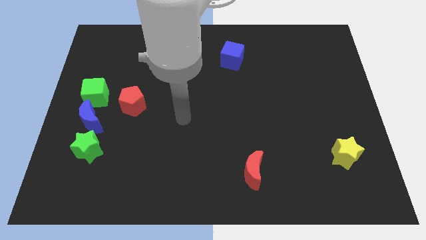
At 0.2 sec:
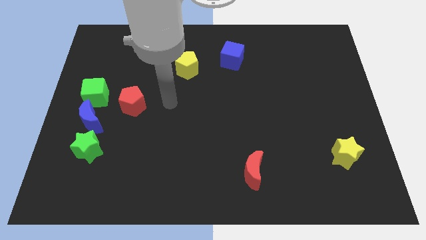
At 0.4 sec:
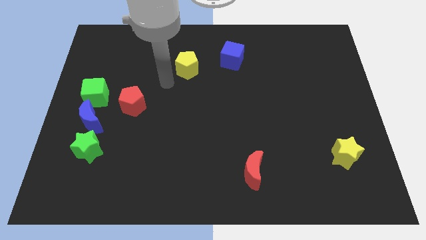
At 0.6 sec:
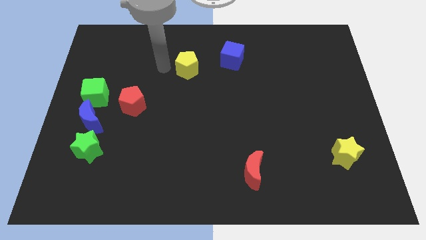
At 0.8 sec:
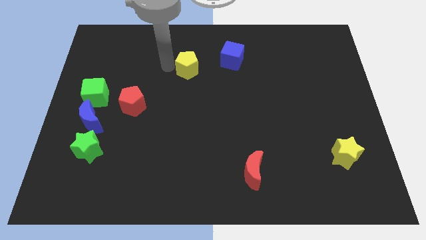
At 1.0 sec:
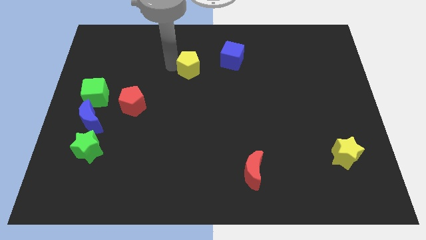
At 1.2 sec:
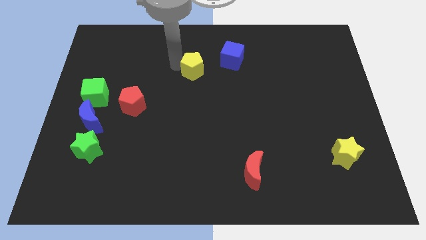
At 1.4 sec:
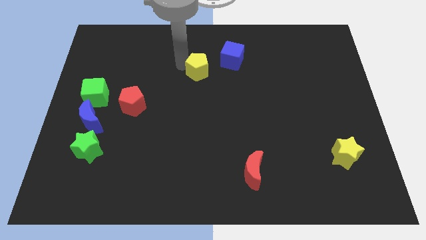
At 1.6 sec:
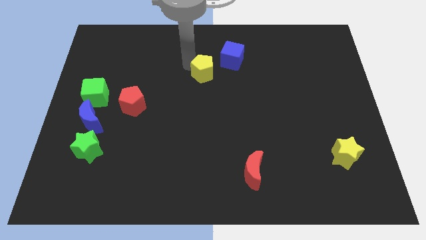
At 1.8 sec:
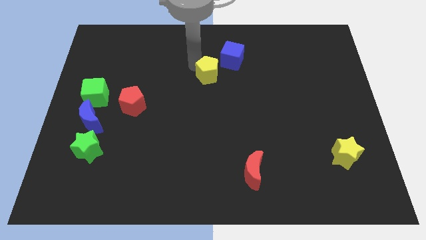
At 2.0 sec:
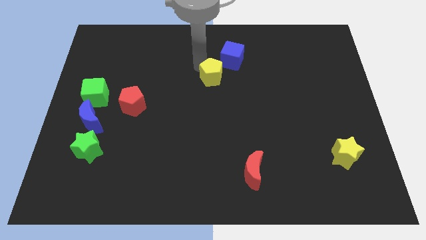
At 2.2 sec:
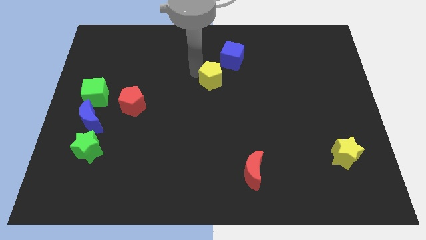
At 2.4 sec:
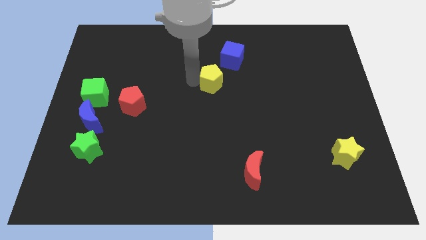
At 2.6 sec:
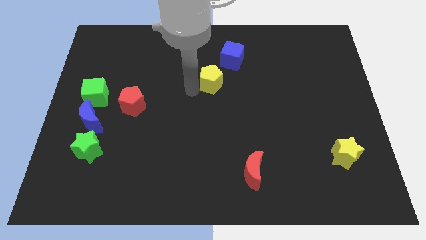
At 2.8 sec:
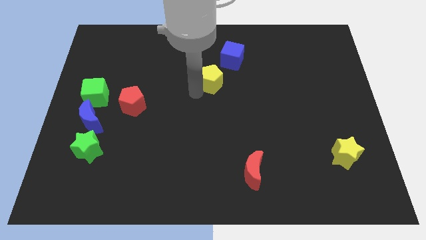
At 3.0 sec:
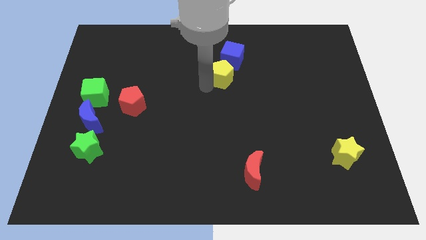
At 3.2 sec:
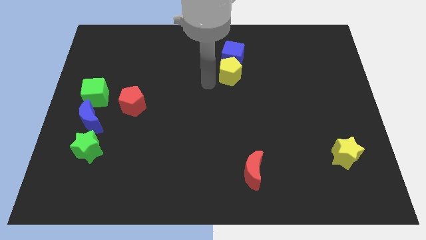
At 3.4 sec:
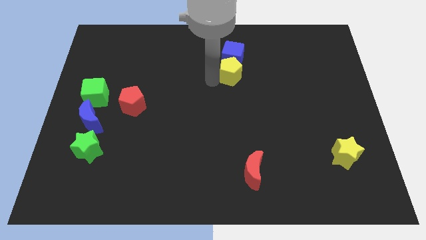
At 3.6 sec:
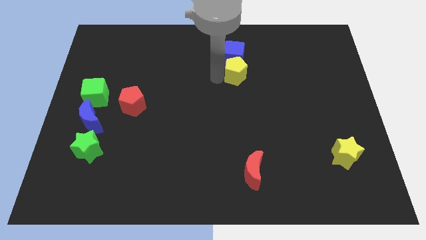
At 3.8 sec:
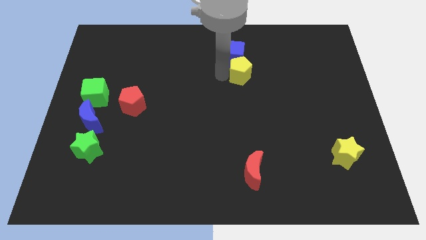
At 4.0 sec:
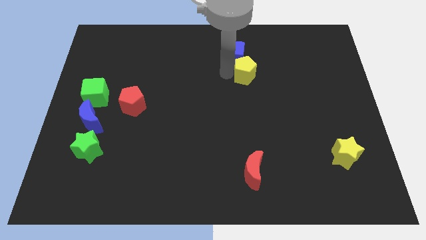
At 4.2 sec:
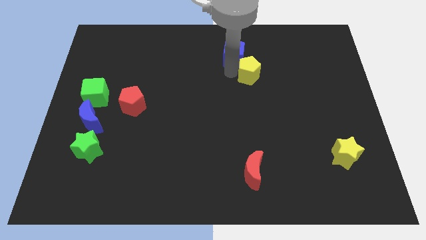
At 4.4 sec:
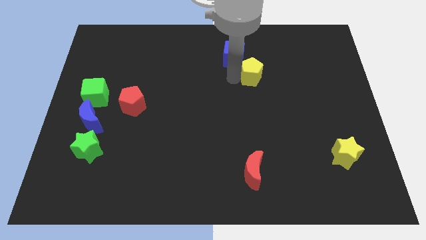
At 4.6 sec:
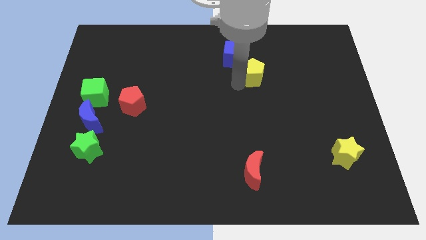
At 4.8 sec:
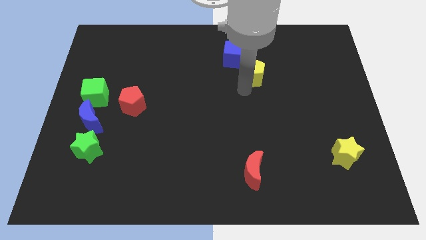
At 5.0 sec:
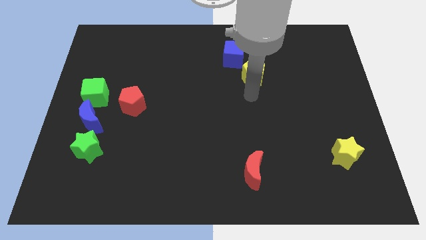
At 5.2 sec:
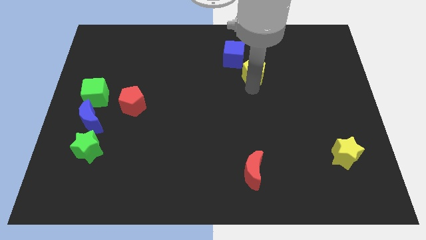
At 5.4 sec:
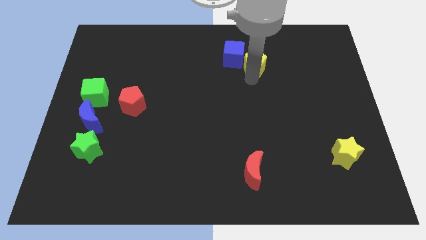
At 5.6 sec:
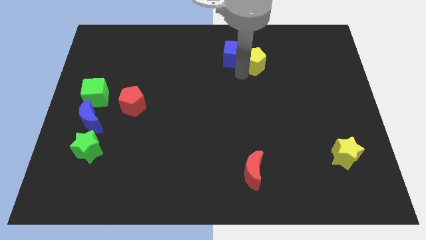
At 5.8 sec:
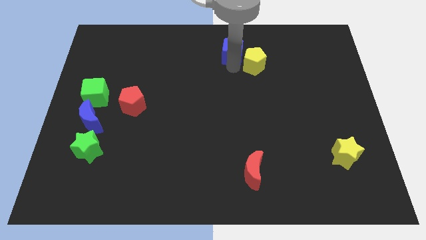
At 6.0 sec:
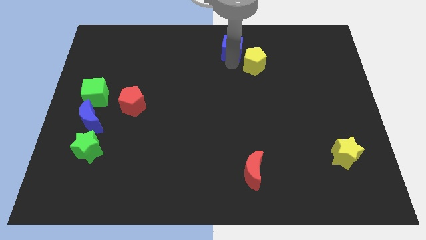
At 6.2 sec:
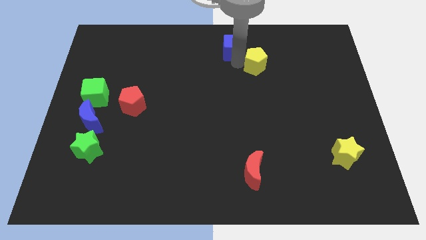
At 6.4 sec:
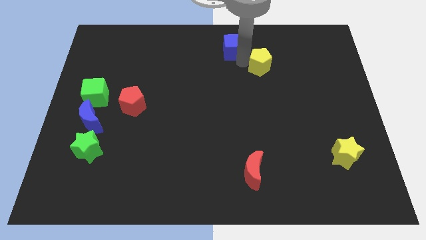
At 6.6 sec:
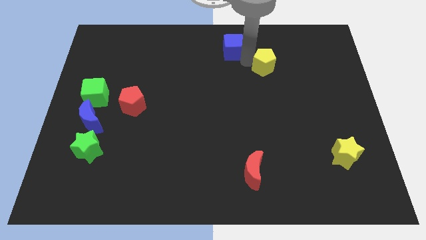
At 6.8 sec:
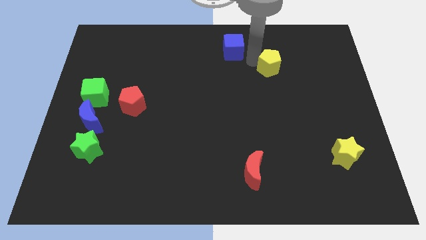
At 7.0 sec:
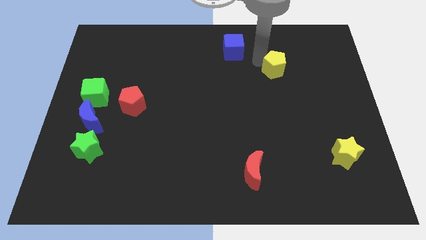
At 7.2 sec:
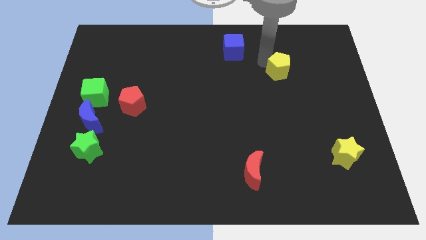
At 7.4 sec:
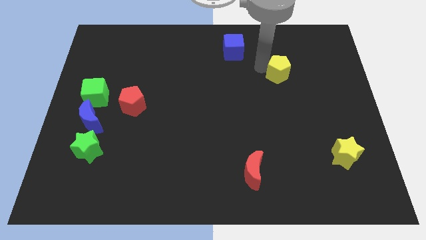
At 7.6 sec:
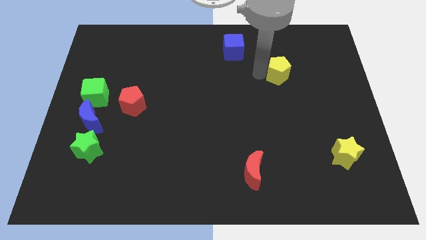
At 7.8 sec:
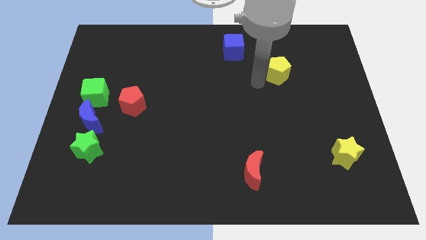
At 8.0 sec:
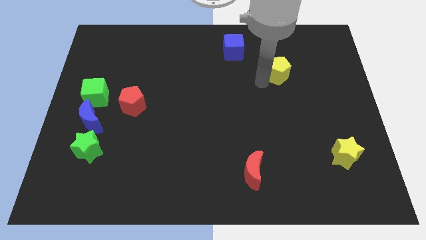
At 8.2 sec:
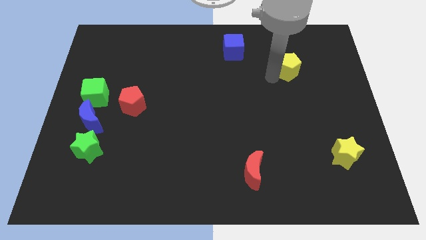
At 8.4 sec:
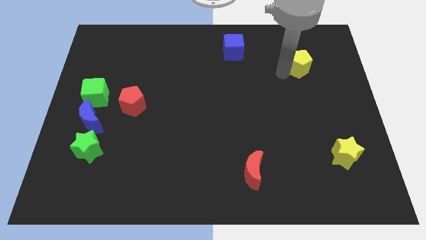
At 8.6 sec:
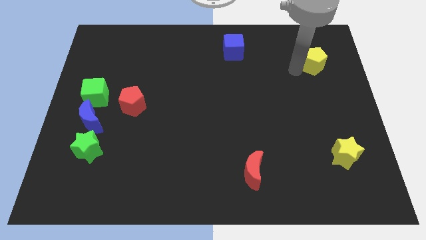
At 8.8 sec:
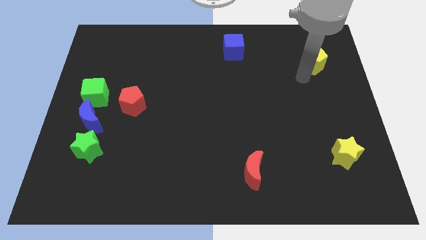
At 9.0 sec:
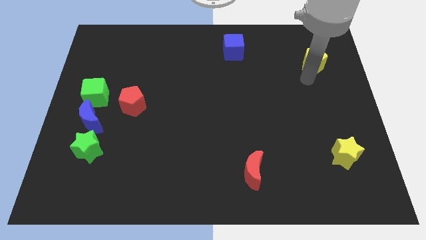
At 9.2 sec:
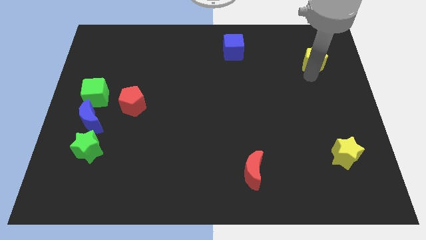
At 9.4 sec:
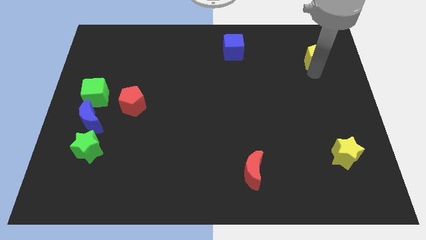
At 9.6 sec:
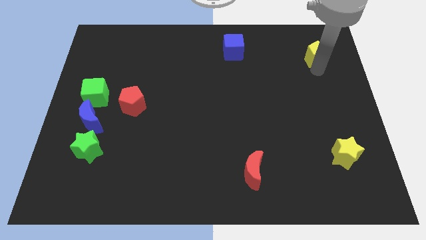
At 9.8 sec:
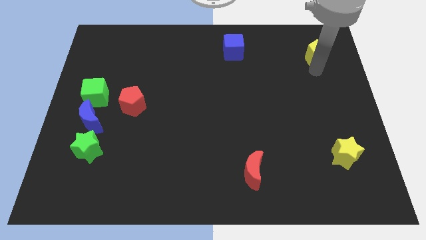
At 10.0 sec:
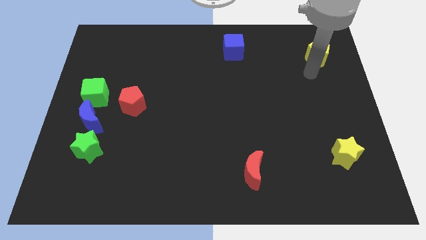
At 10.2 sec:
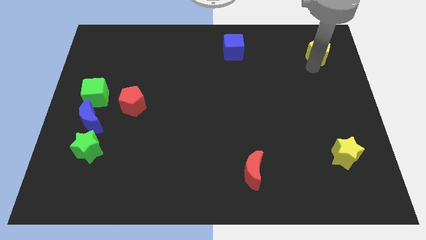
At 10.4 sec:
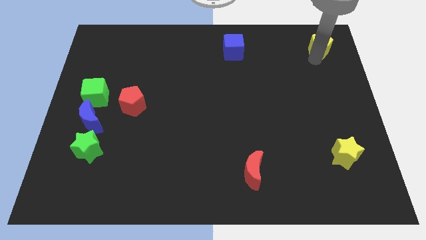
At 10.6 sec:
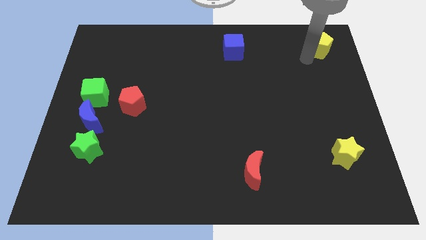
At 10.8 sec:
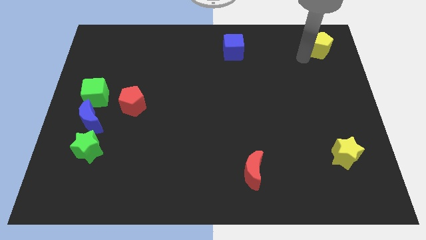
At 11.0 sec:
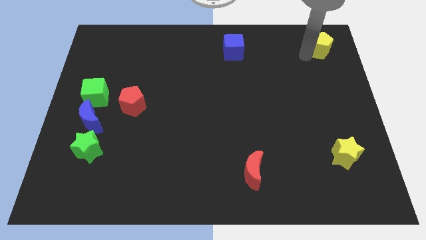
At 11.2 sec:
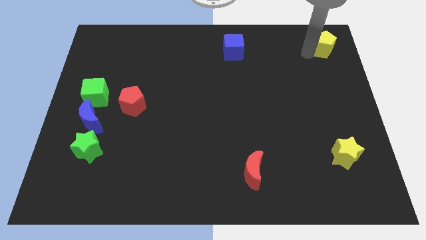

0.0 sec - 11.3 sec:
put the yellow pentagon to the top right of the board

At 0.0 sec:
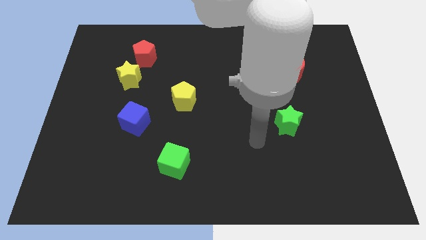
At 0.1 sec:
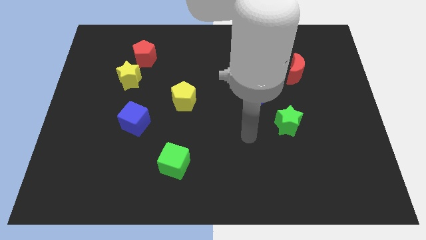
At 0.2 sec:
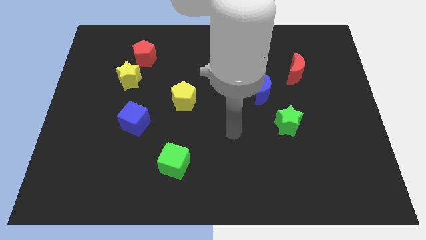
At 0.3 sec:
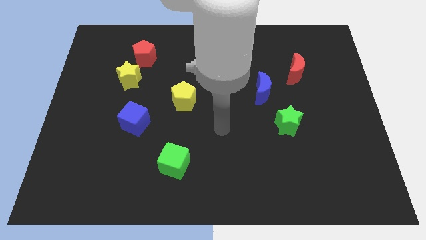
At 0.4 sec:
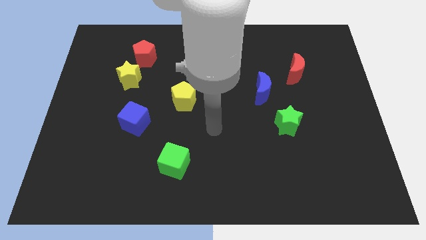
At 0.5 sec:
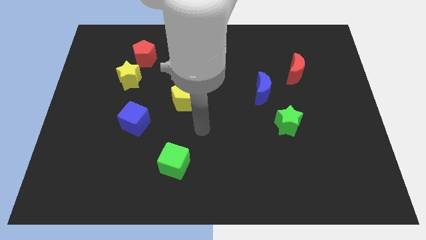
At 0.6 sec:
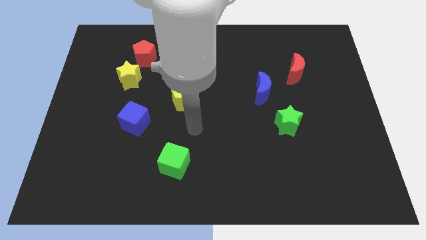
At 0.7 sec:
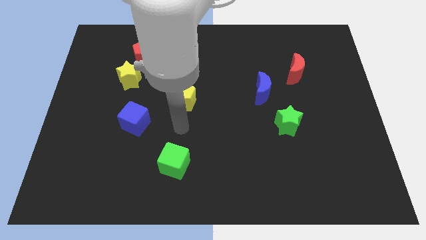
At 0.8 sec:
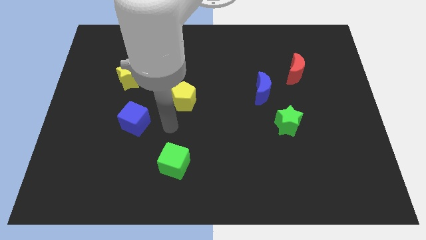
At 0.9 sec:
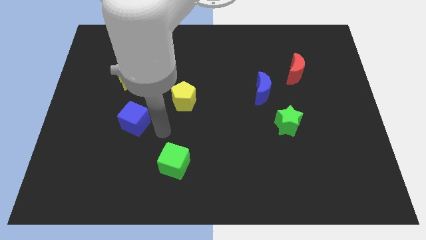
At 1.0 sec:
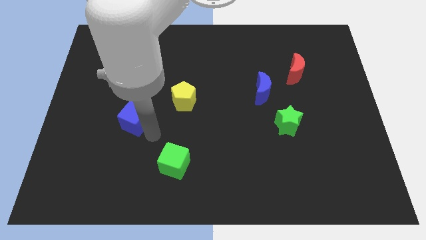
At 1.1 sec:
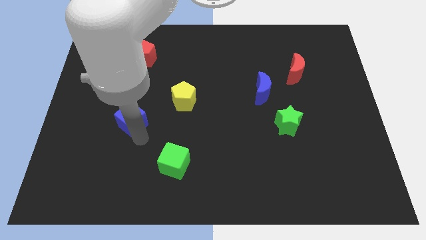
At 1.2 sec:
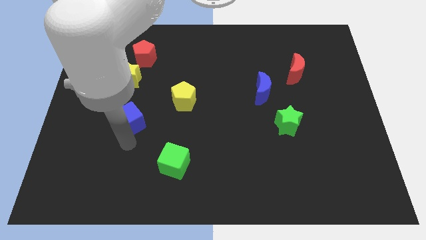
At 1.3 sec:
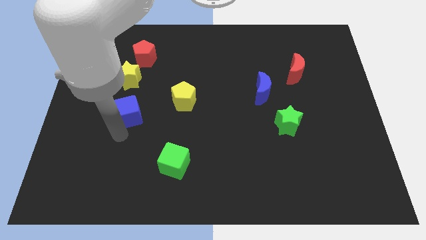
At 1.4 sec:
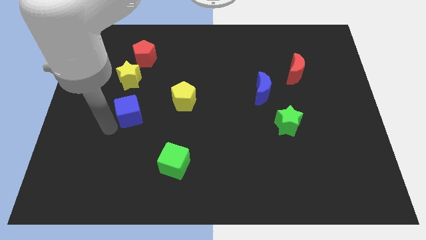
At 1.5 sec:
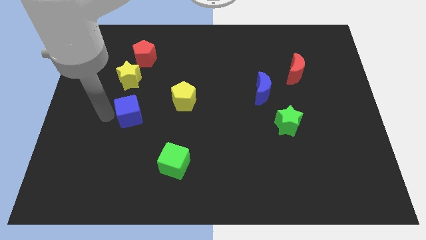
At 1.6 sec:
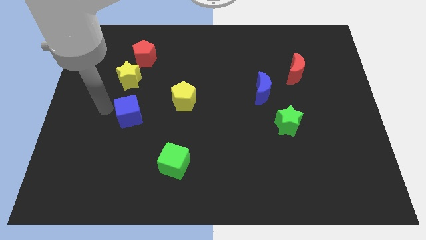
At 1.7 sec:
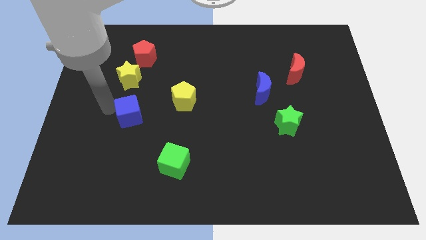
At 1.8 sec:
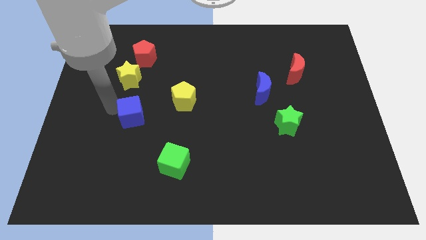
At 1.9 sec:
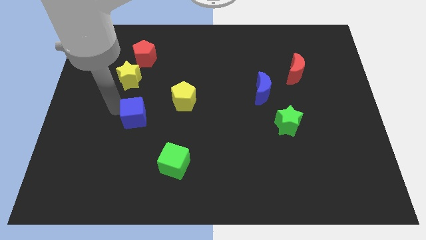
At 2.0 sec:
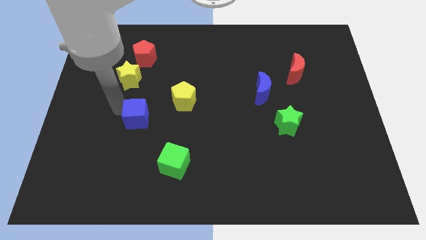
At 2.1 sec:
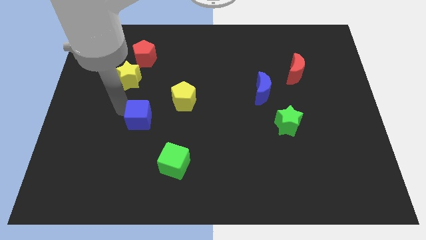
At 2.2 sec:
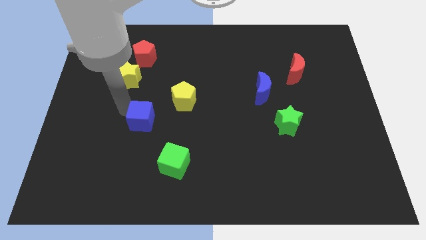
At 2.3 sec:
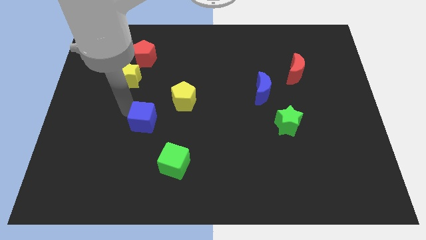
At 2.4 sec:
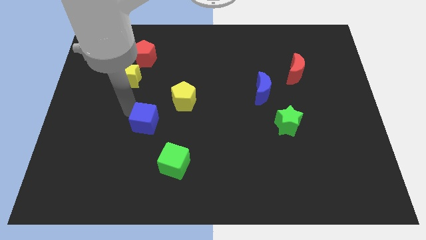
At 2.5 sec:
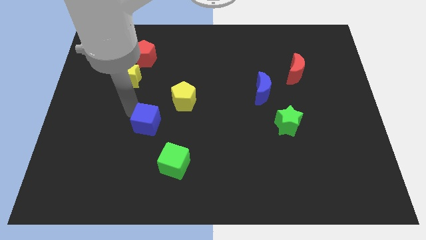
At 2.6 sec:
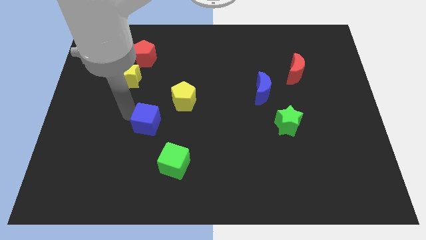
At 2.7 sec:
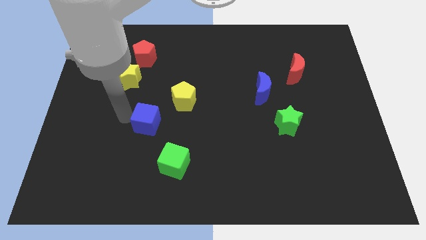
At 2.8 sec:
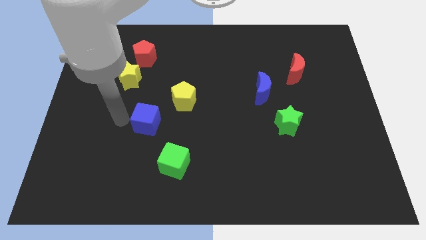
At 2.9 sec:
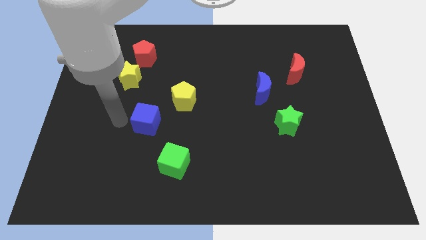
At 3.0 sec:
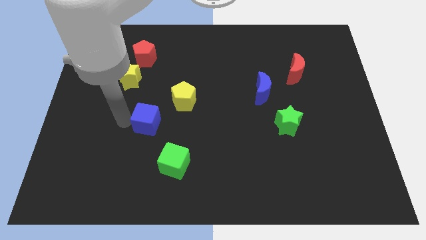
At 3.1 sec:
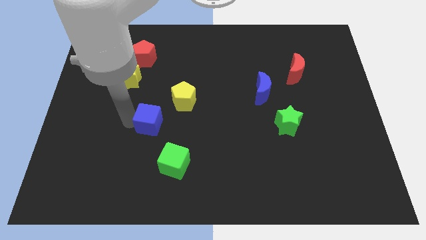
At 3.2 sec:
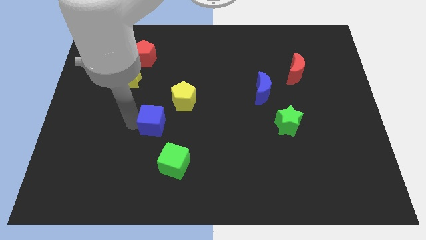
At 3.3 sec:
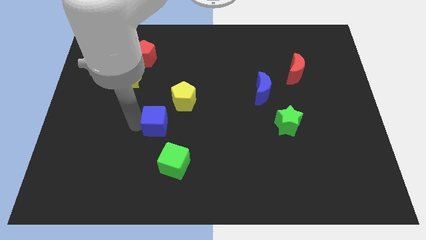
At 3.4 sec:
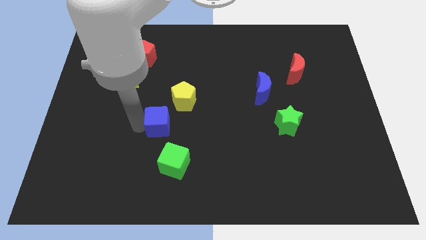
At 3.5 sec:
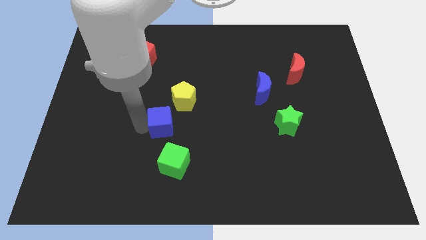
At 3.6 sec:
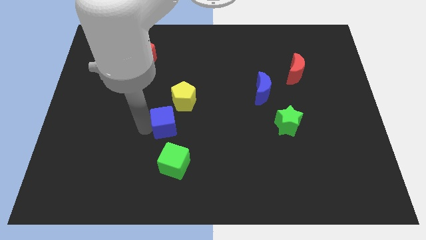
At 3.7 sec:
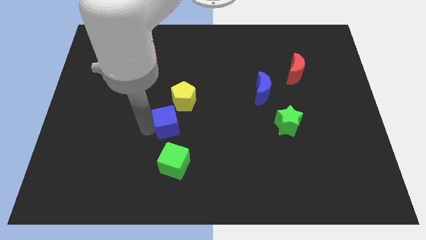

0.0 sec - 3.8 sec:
push the blue cube to the middle
